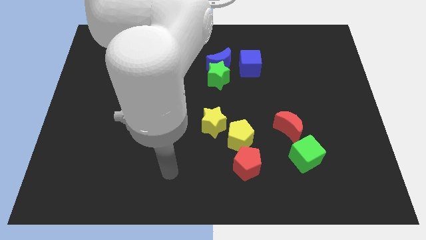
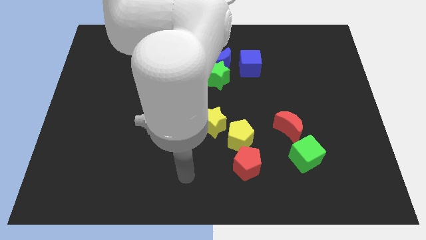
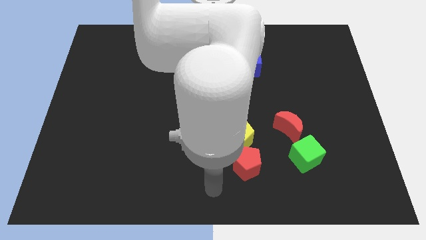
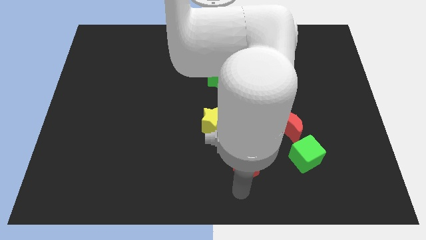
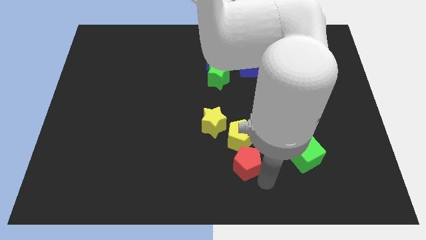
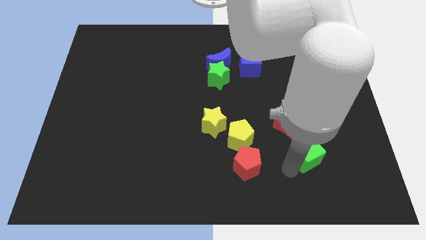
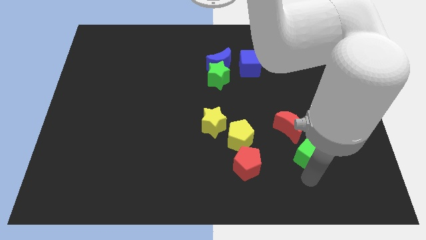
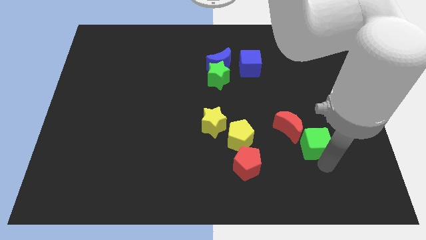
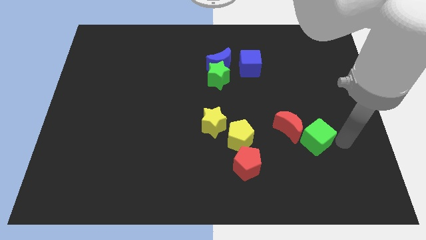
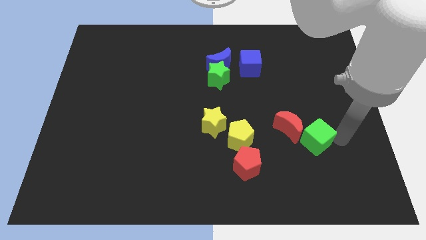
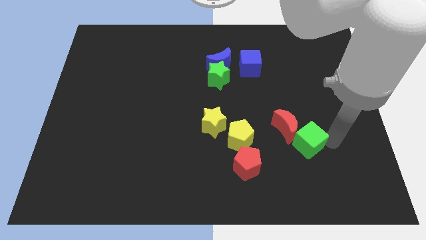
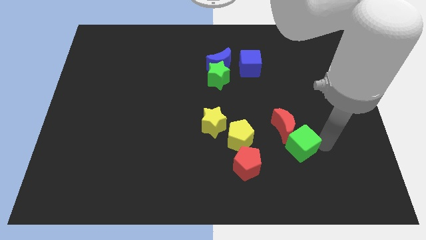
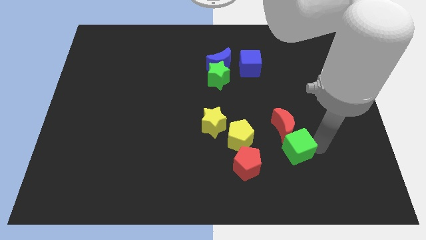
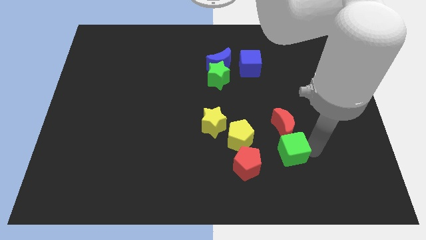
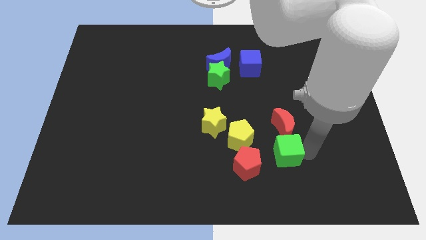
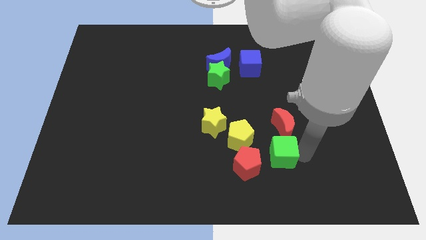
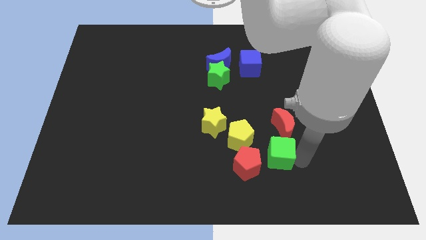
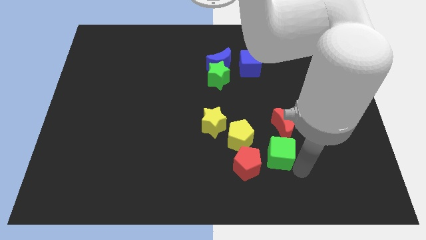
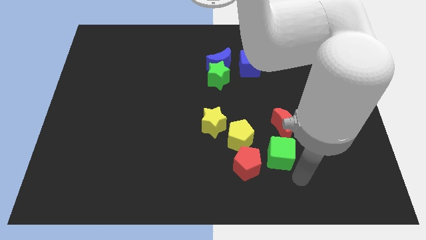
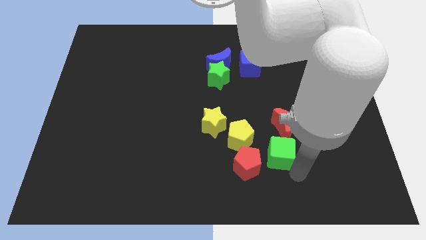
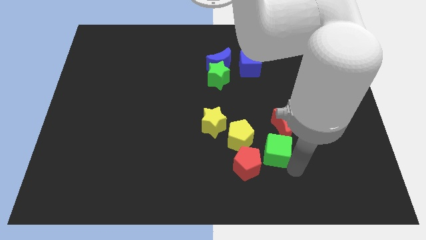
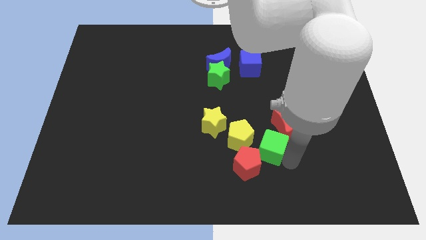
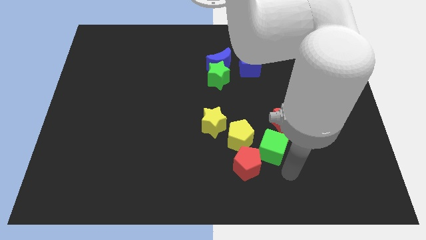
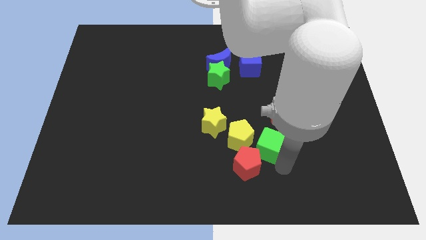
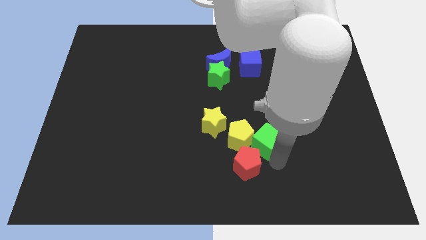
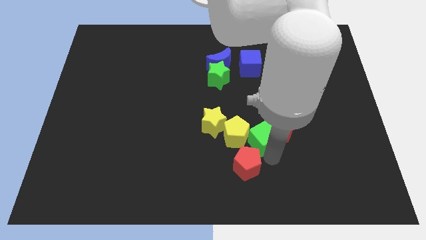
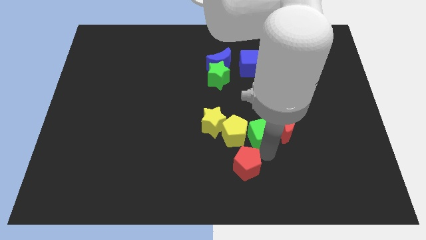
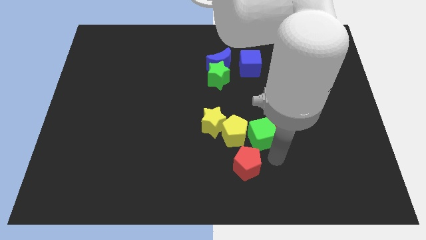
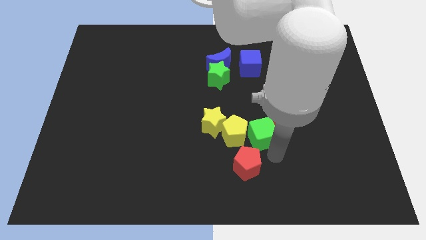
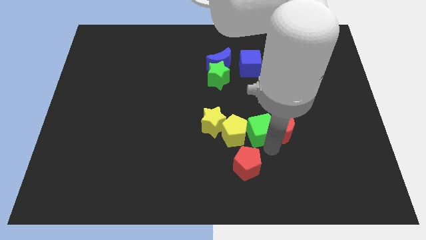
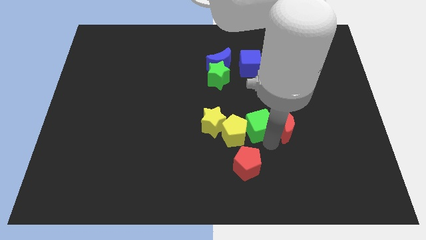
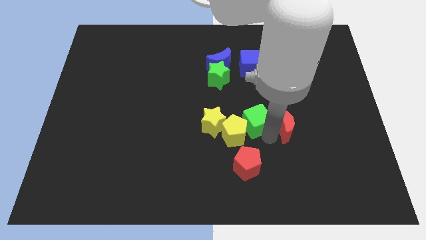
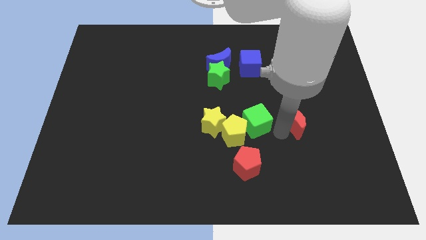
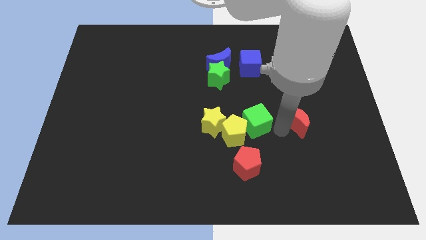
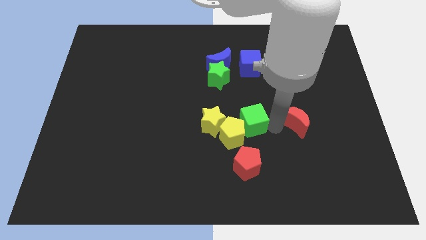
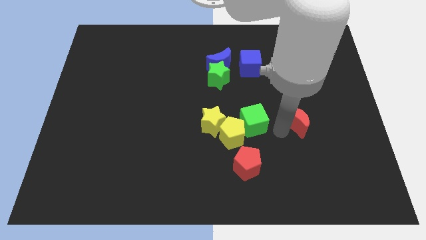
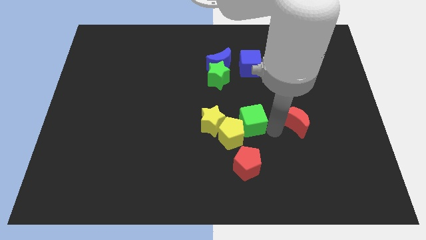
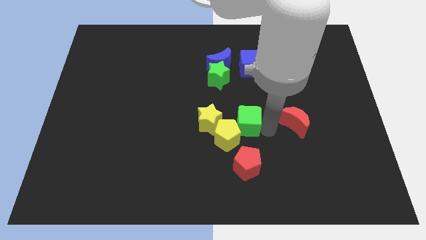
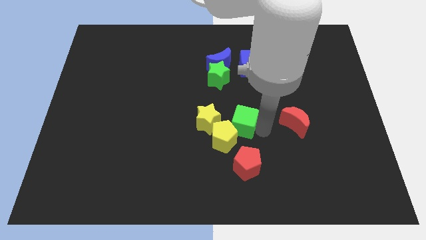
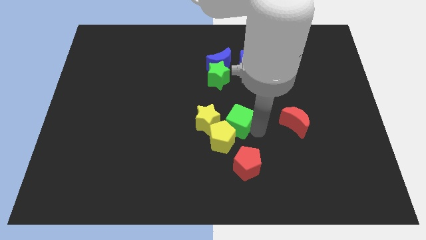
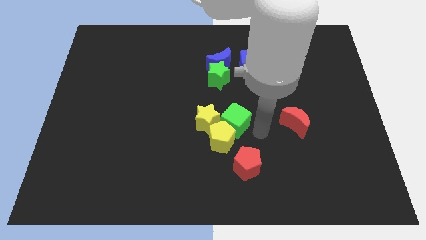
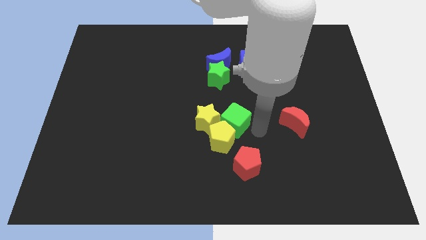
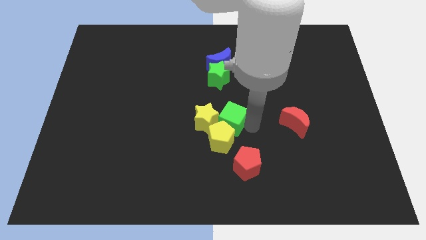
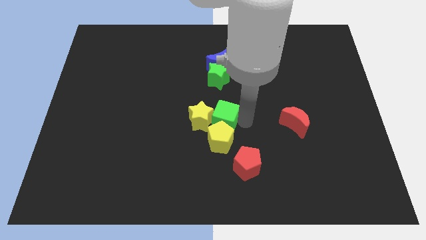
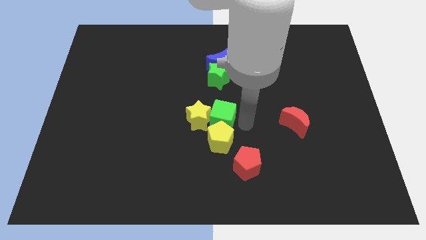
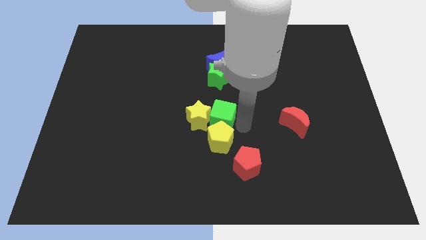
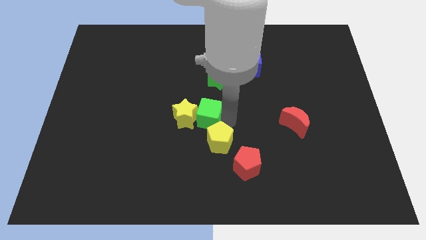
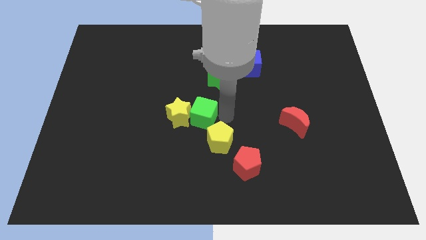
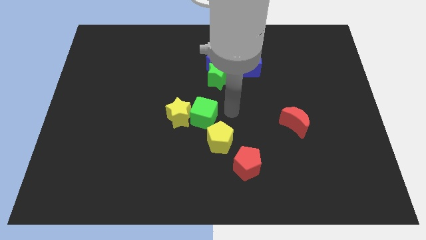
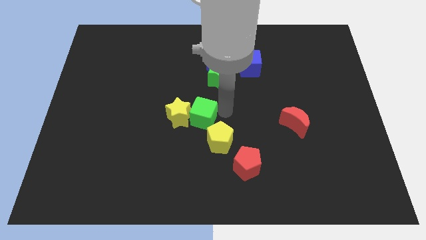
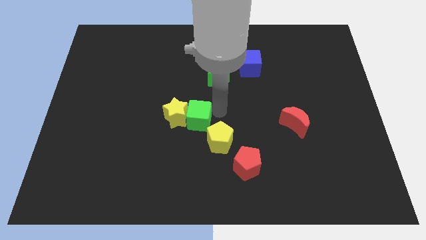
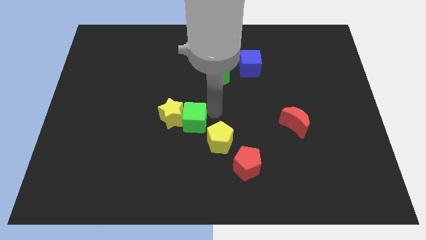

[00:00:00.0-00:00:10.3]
move the green cube to the left

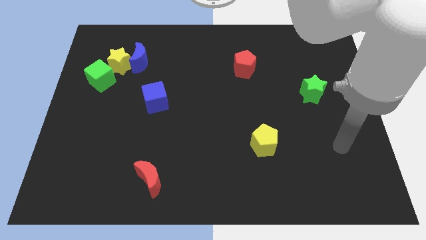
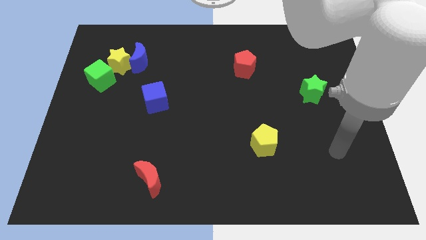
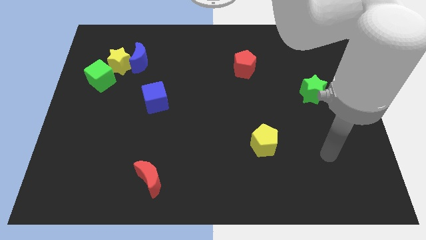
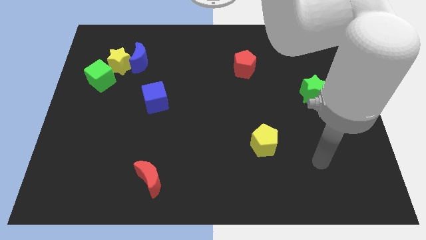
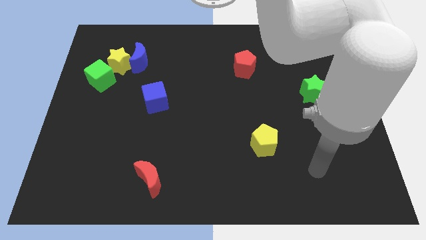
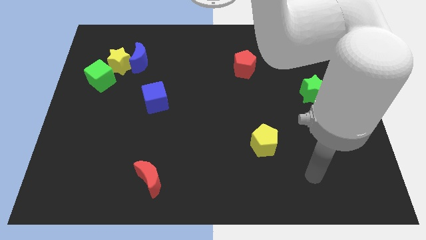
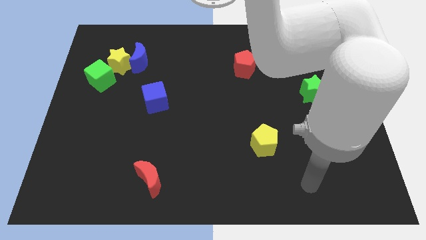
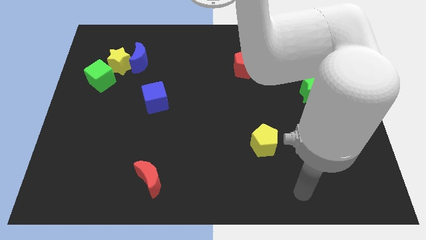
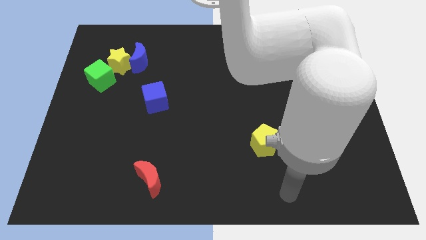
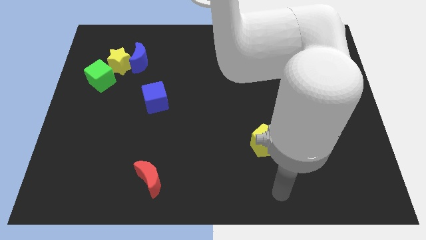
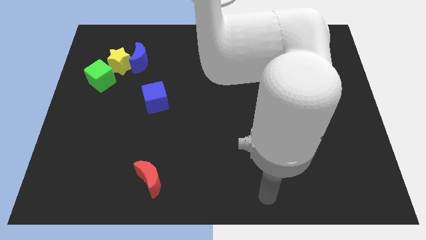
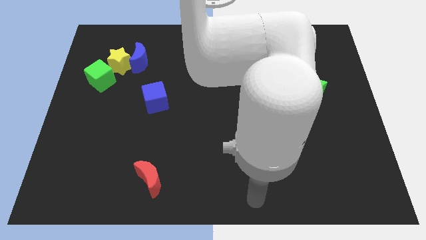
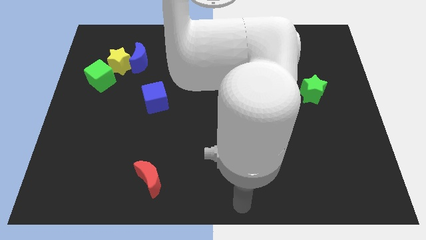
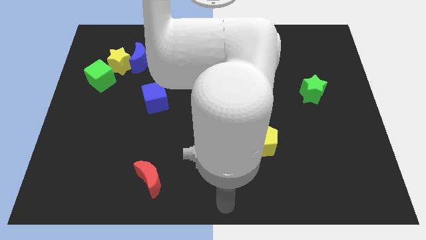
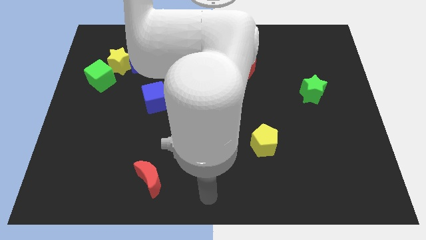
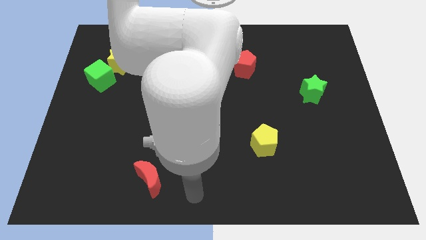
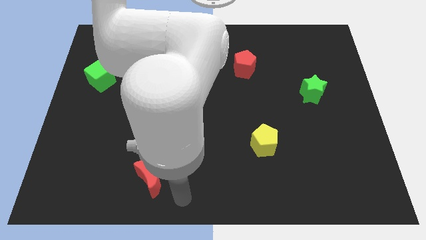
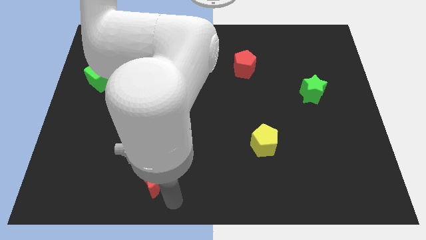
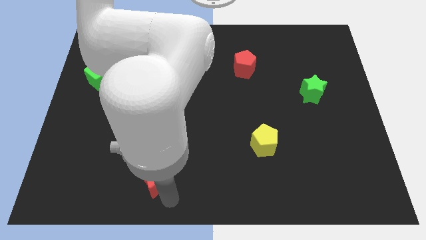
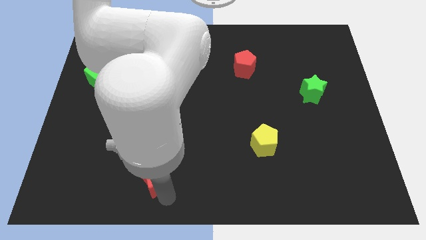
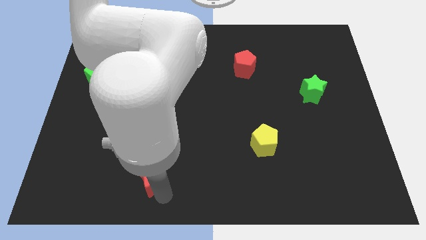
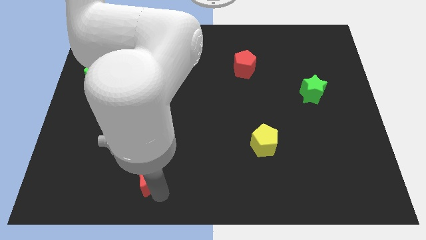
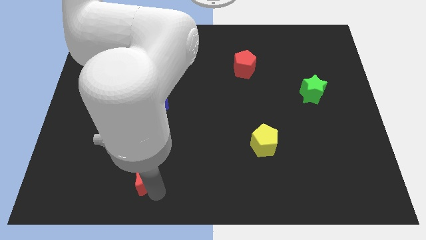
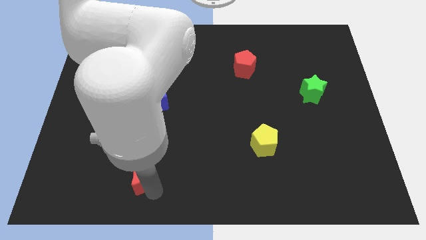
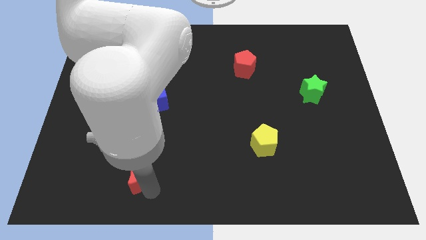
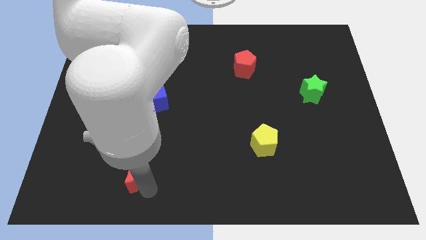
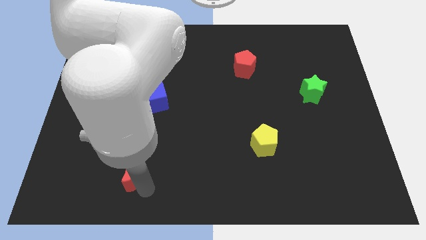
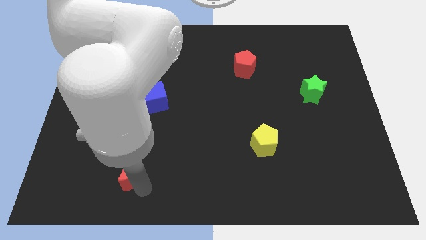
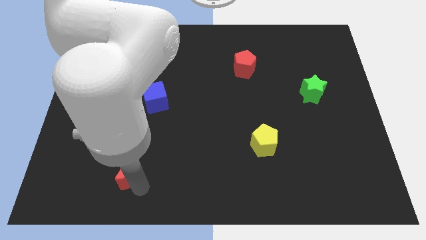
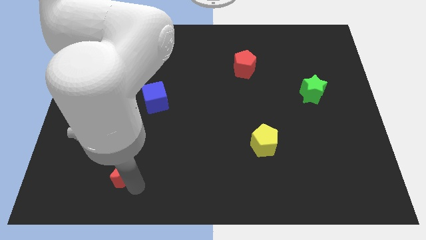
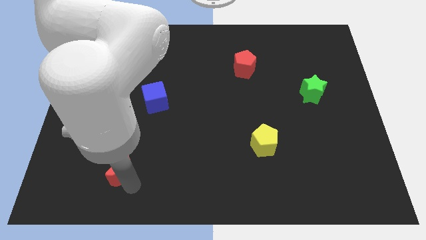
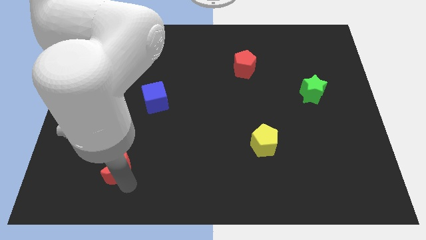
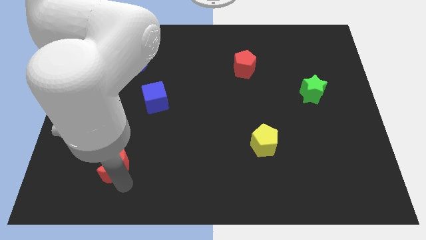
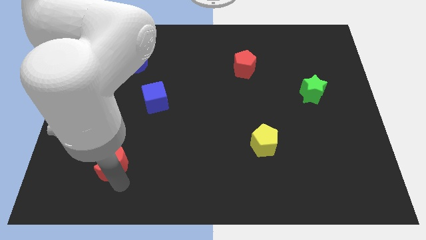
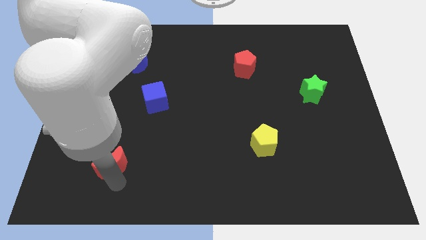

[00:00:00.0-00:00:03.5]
move the red moon a bit upwards and then to the left
